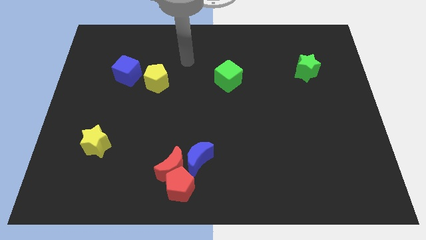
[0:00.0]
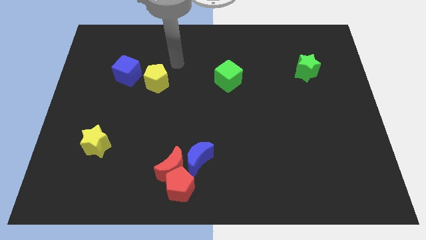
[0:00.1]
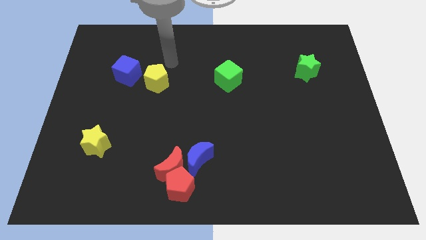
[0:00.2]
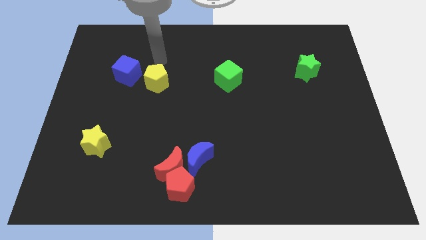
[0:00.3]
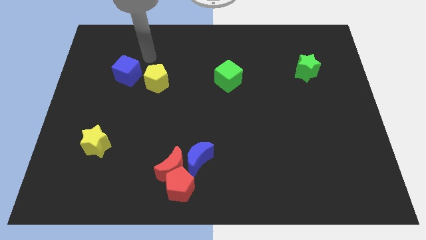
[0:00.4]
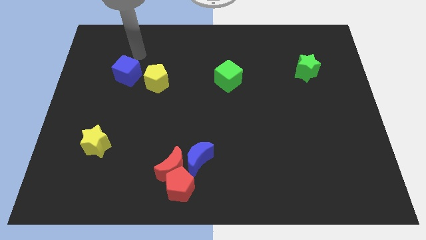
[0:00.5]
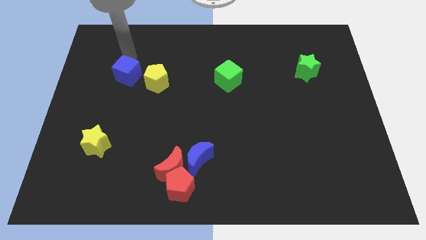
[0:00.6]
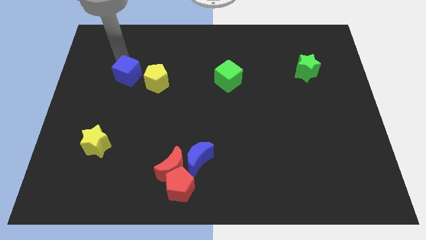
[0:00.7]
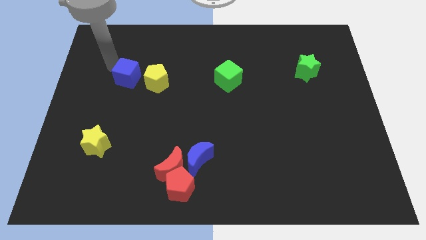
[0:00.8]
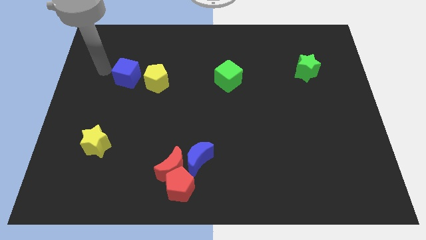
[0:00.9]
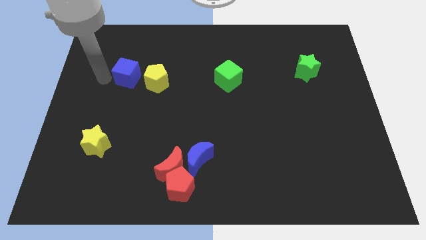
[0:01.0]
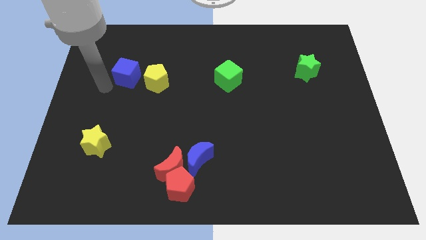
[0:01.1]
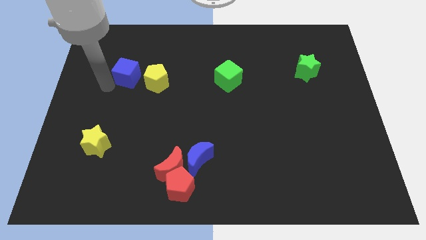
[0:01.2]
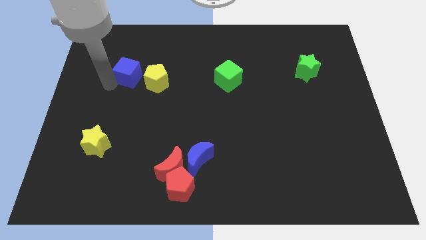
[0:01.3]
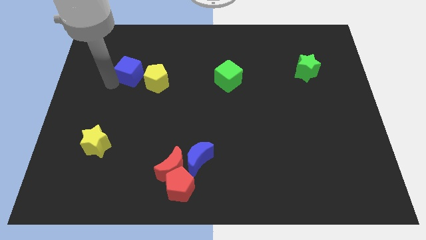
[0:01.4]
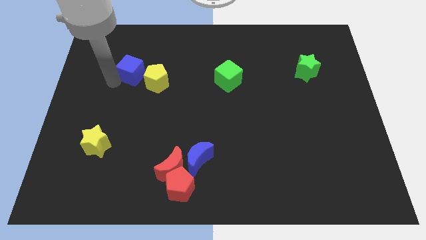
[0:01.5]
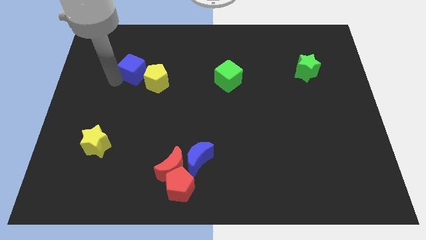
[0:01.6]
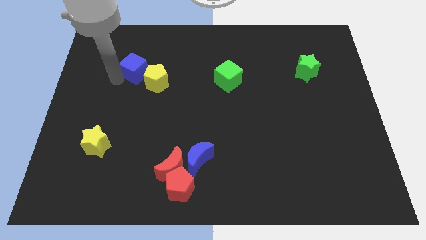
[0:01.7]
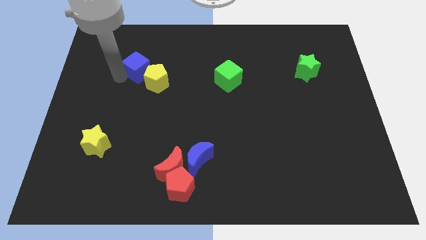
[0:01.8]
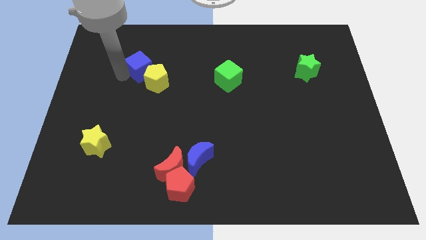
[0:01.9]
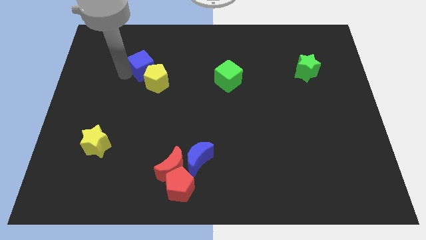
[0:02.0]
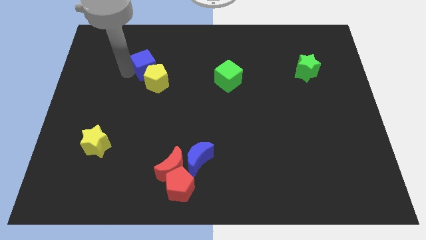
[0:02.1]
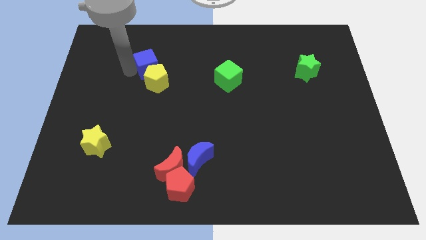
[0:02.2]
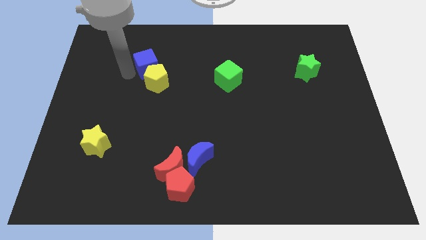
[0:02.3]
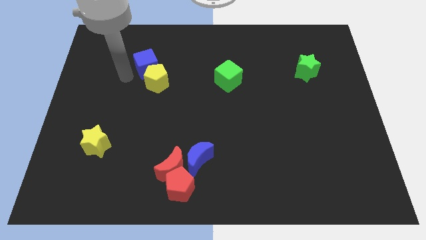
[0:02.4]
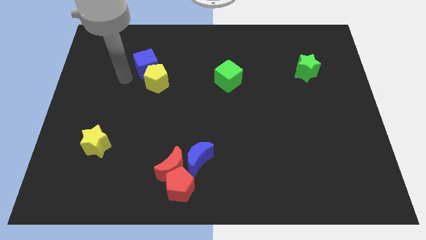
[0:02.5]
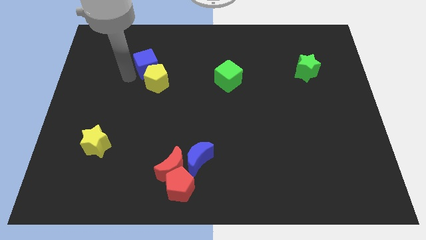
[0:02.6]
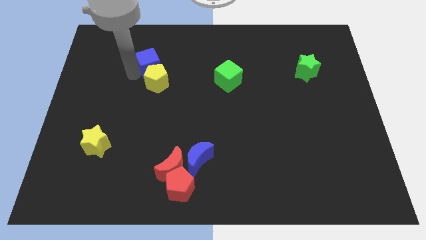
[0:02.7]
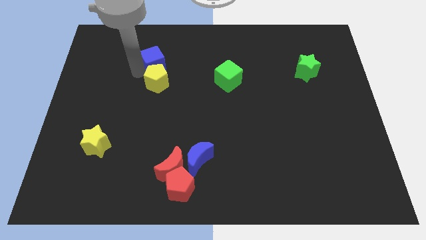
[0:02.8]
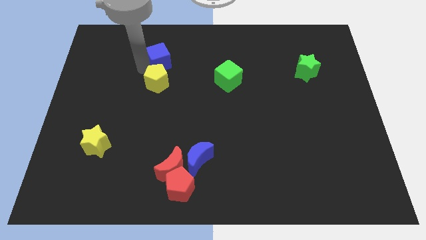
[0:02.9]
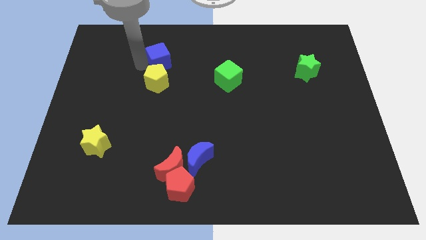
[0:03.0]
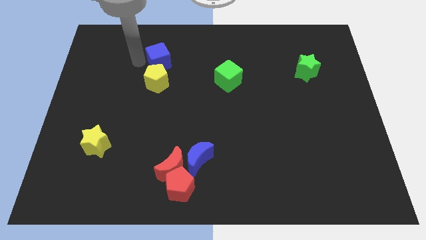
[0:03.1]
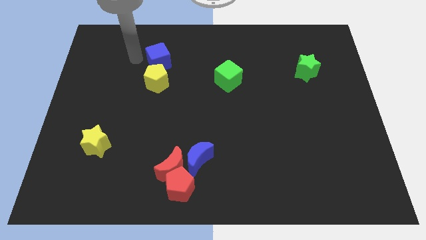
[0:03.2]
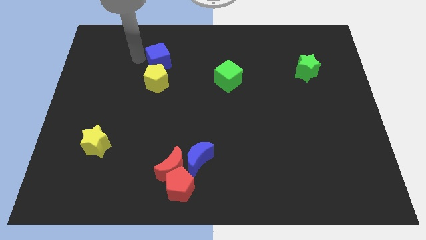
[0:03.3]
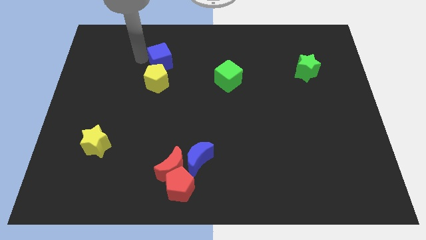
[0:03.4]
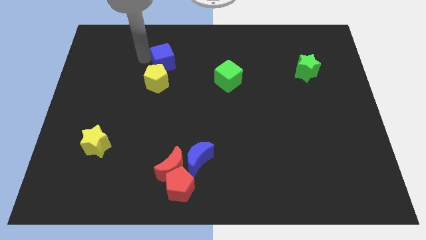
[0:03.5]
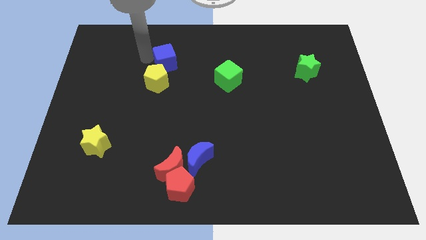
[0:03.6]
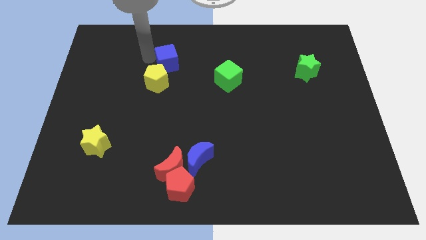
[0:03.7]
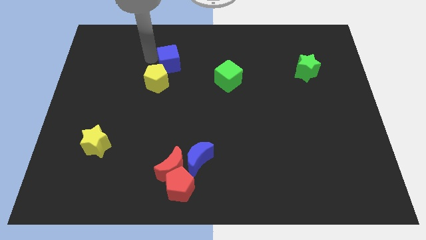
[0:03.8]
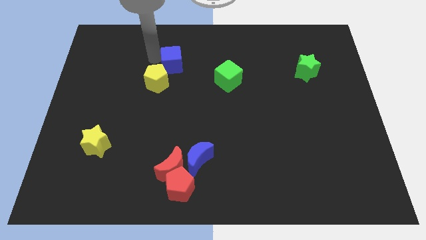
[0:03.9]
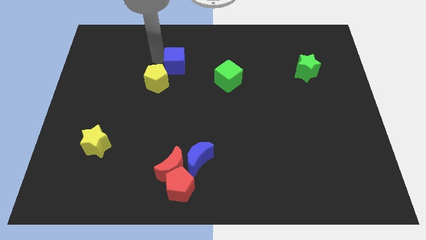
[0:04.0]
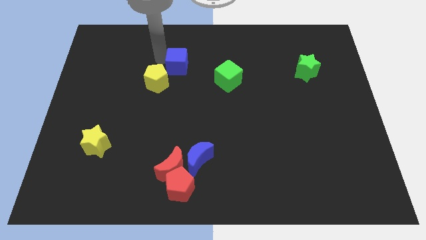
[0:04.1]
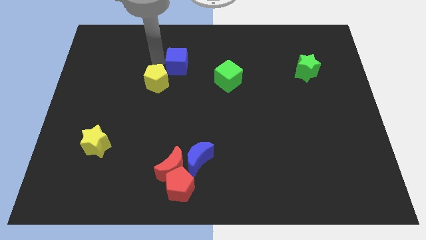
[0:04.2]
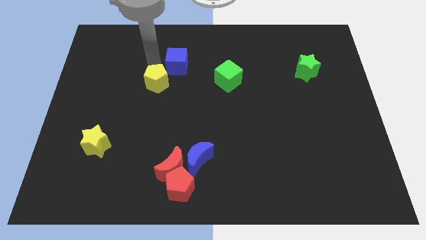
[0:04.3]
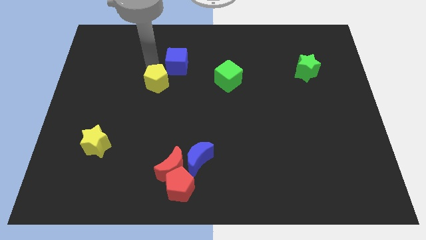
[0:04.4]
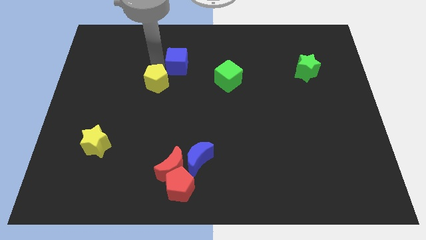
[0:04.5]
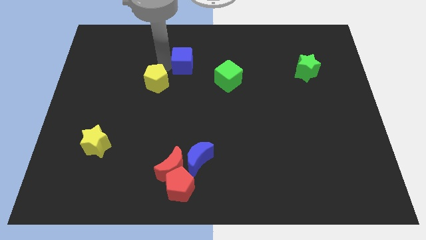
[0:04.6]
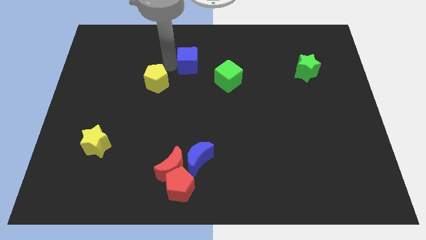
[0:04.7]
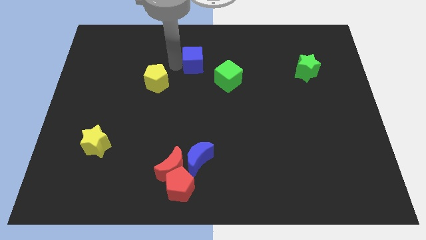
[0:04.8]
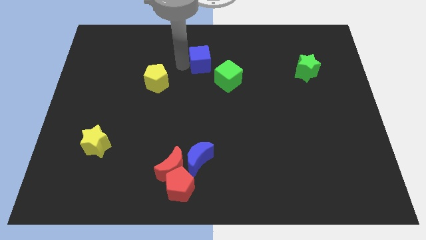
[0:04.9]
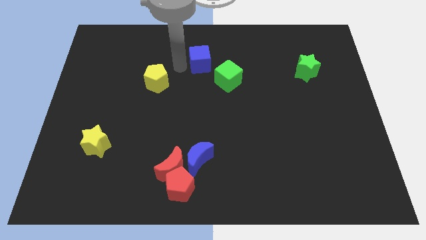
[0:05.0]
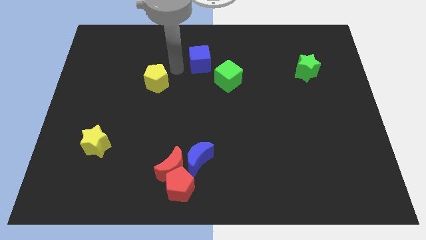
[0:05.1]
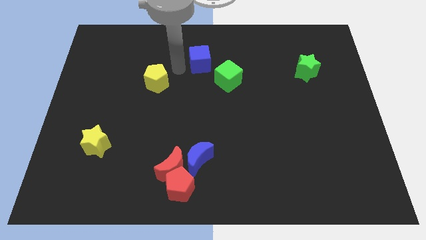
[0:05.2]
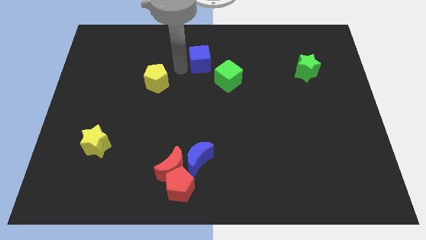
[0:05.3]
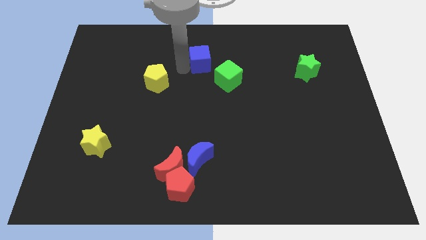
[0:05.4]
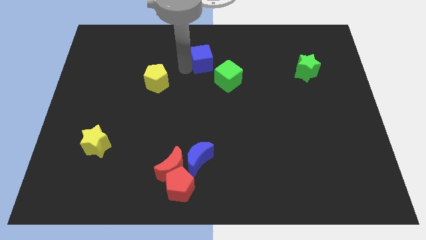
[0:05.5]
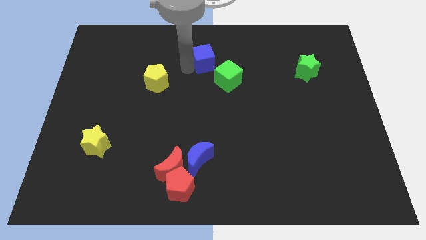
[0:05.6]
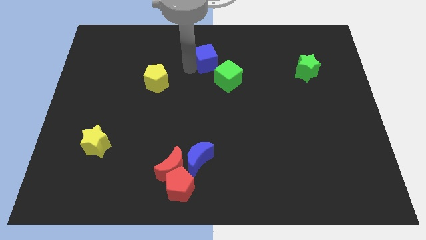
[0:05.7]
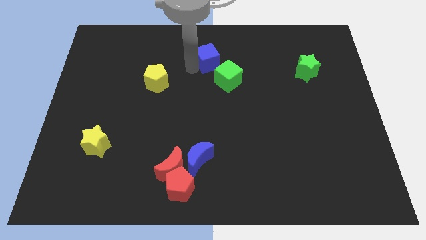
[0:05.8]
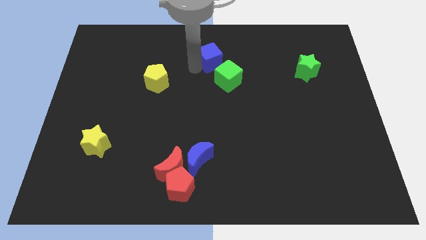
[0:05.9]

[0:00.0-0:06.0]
move the blue cube to the right

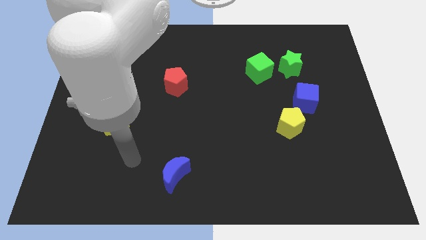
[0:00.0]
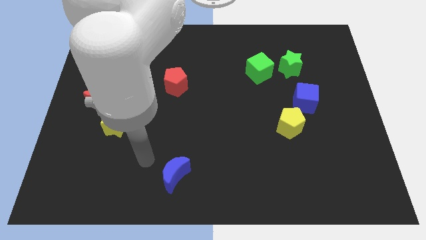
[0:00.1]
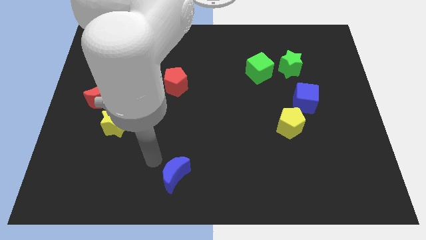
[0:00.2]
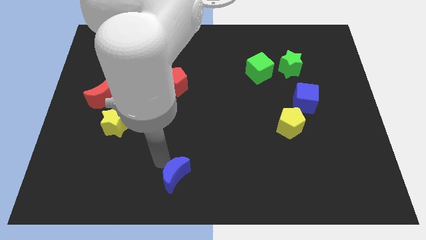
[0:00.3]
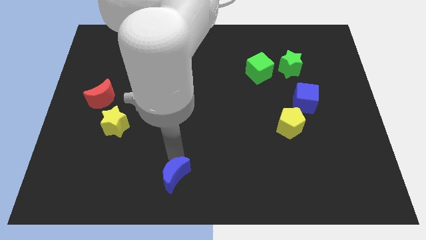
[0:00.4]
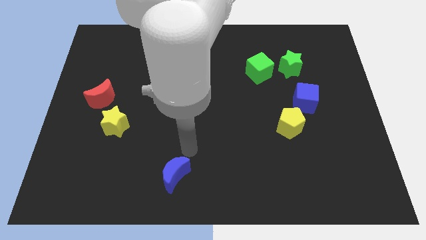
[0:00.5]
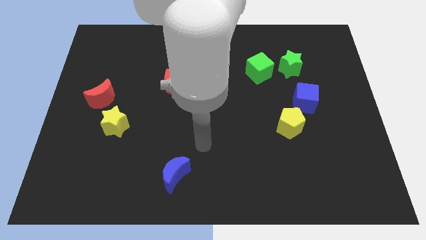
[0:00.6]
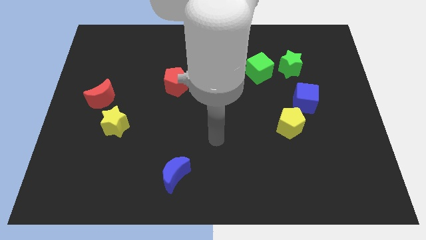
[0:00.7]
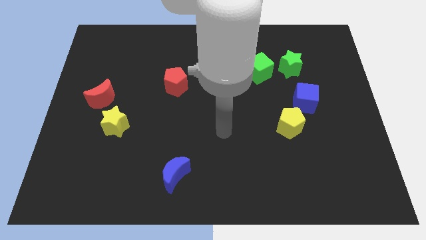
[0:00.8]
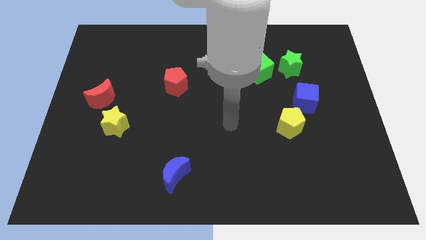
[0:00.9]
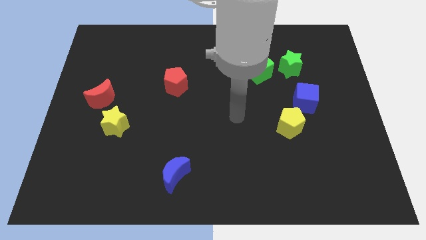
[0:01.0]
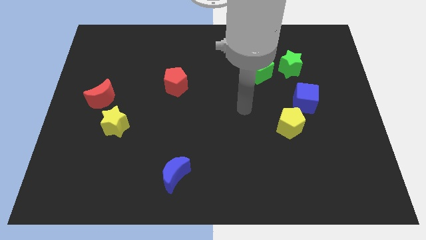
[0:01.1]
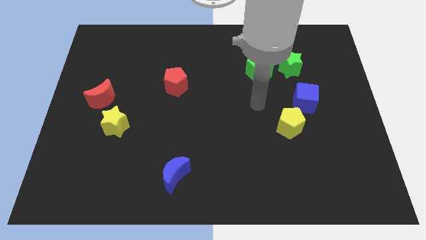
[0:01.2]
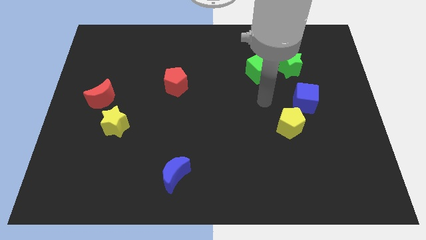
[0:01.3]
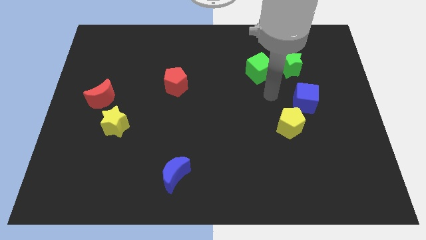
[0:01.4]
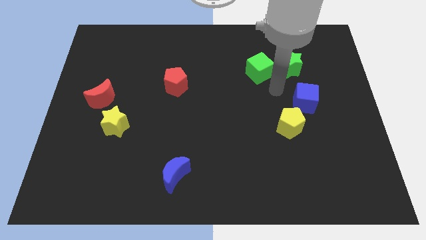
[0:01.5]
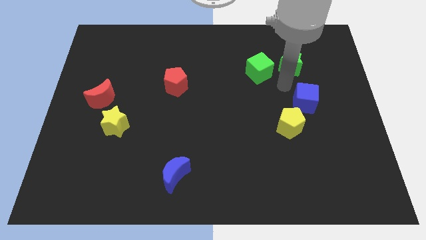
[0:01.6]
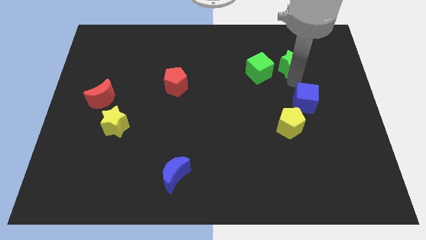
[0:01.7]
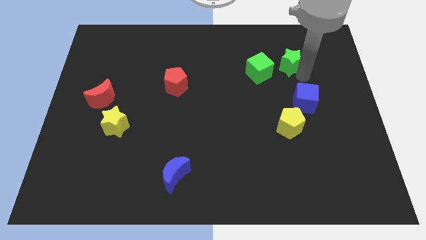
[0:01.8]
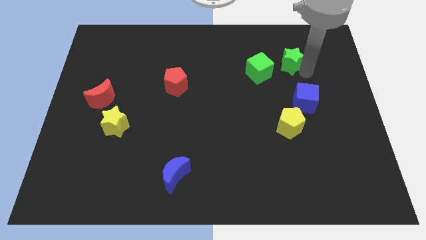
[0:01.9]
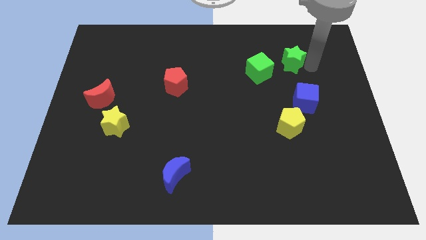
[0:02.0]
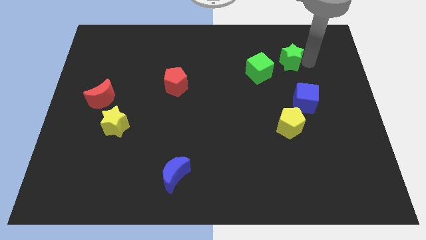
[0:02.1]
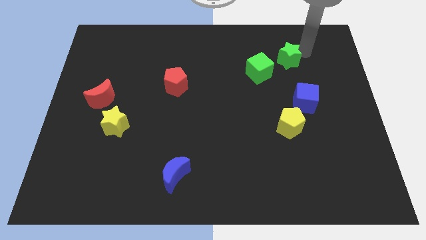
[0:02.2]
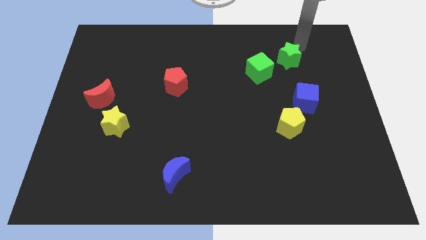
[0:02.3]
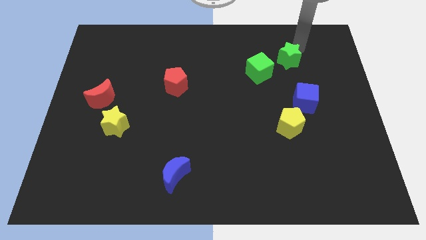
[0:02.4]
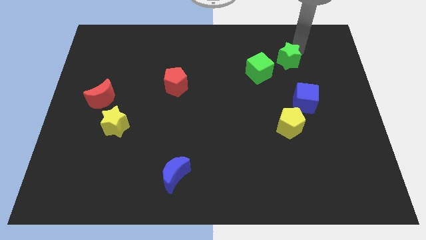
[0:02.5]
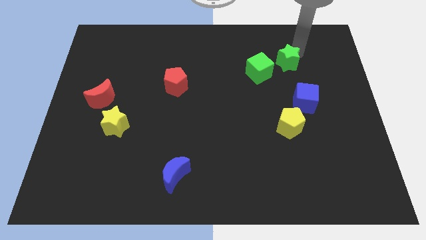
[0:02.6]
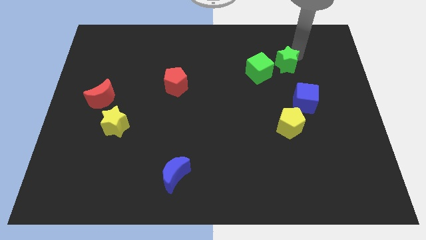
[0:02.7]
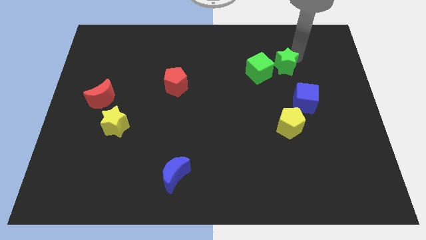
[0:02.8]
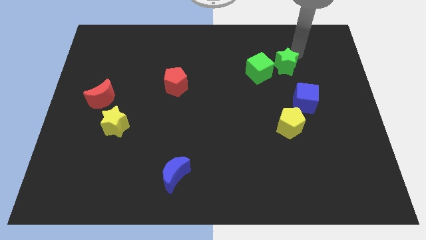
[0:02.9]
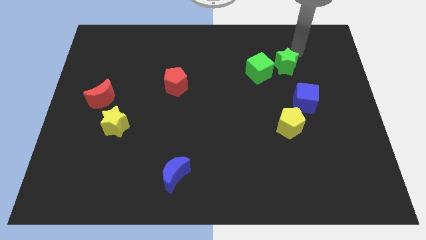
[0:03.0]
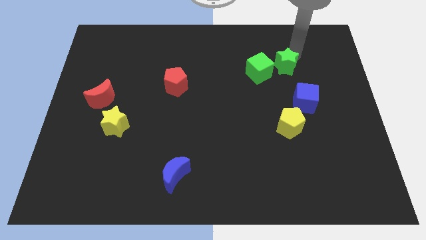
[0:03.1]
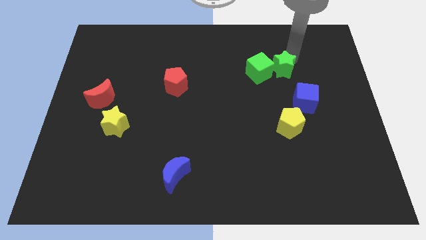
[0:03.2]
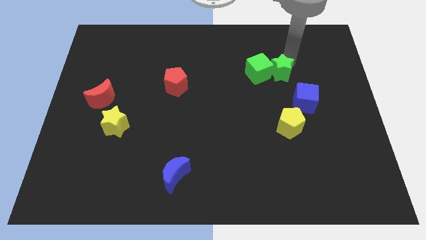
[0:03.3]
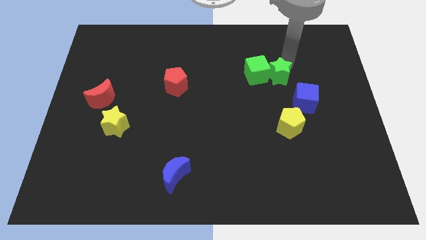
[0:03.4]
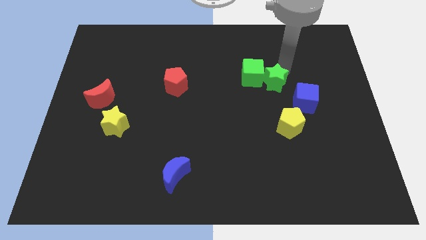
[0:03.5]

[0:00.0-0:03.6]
slide the green star somewhat downwards and left diagonally
